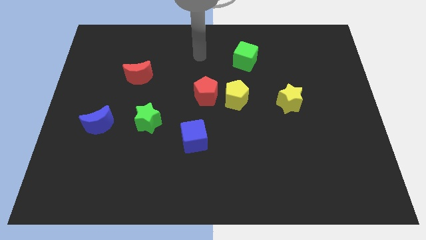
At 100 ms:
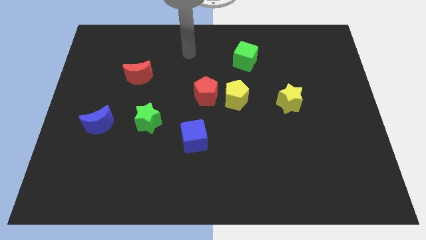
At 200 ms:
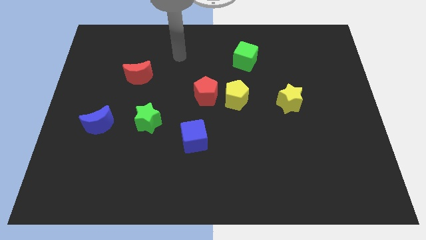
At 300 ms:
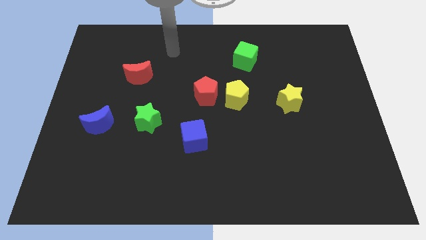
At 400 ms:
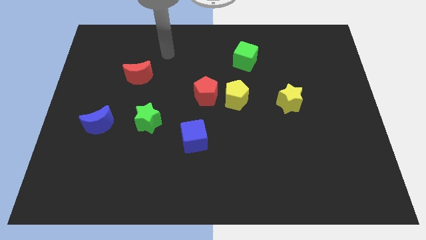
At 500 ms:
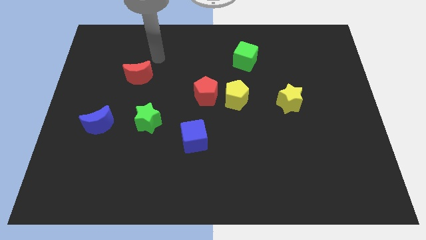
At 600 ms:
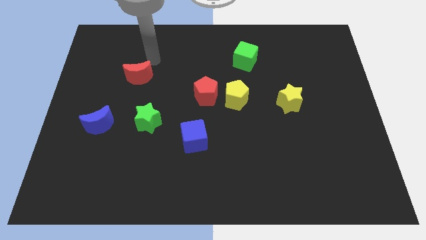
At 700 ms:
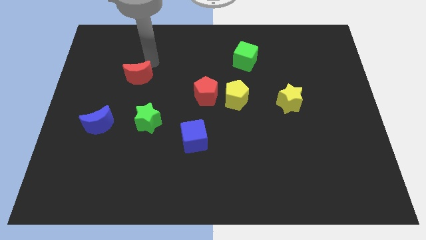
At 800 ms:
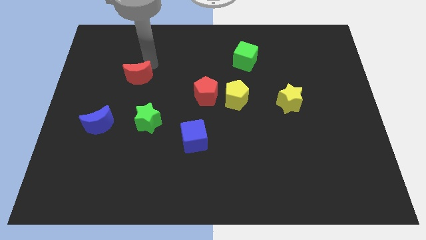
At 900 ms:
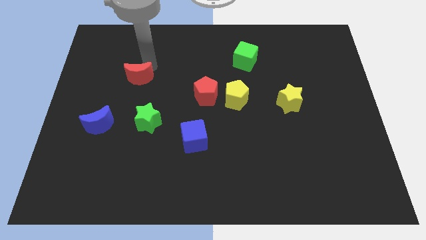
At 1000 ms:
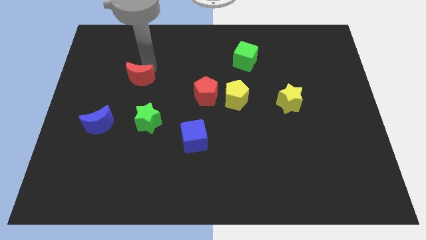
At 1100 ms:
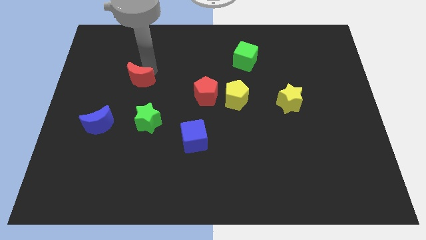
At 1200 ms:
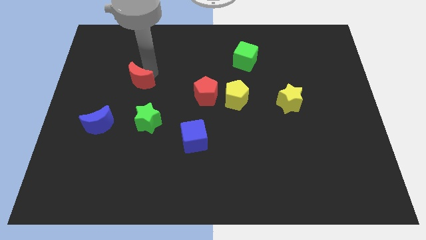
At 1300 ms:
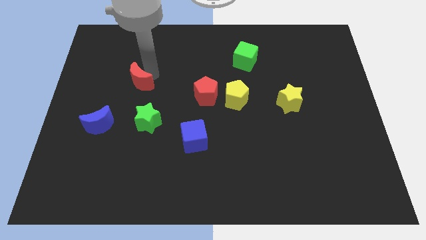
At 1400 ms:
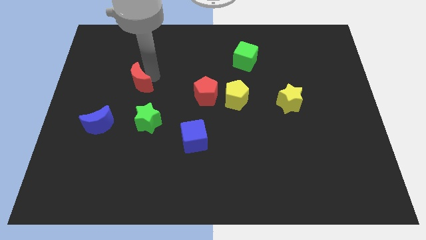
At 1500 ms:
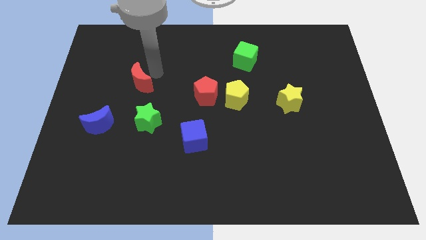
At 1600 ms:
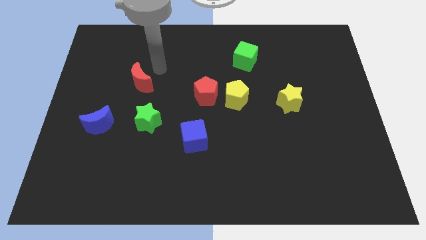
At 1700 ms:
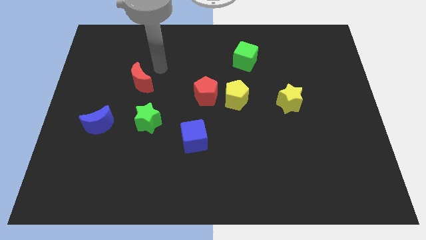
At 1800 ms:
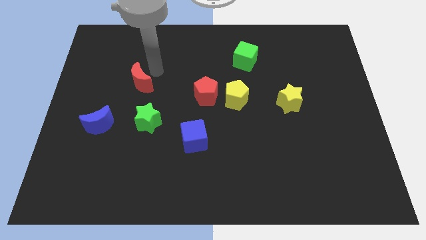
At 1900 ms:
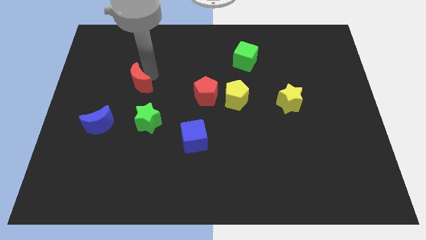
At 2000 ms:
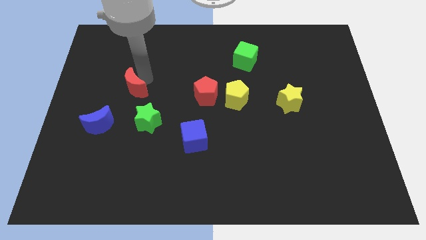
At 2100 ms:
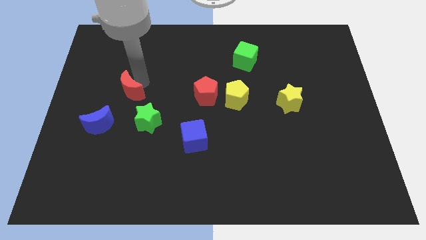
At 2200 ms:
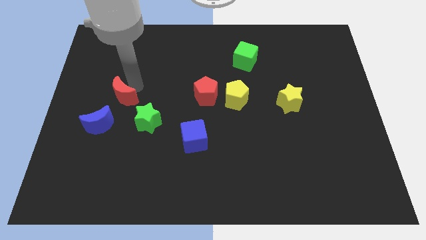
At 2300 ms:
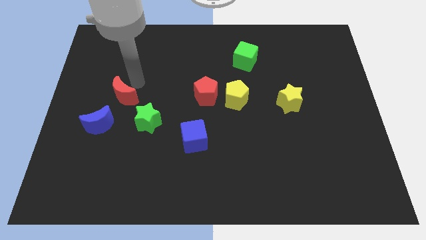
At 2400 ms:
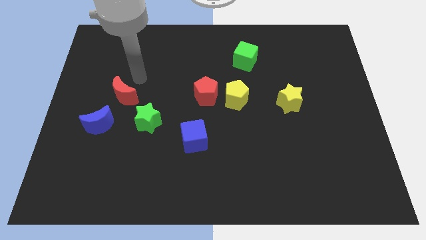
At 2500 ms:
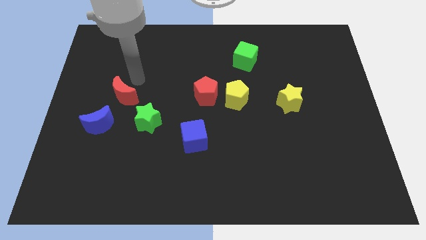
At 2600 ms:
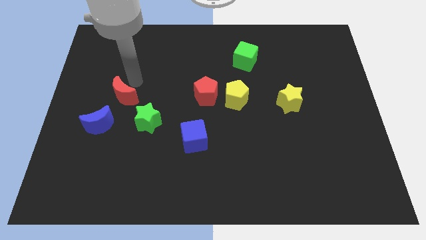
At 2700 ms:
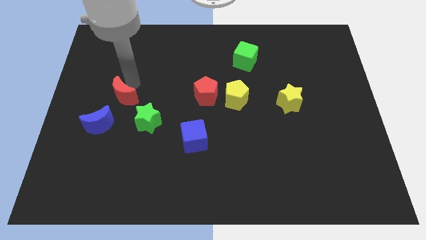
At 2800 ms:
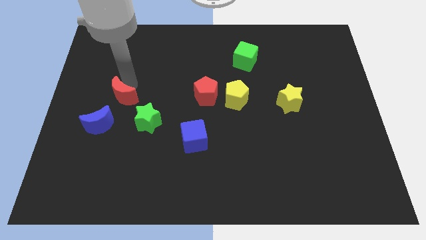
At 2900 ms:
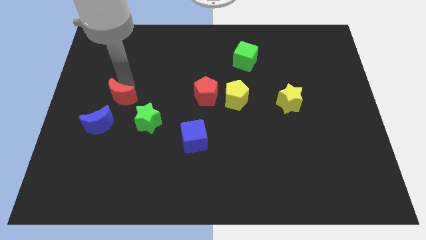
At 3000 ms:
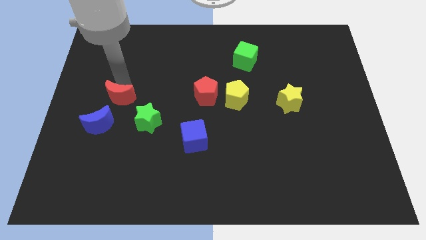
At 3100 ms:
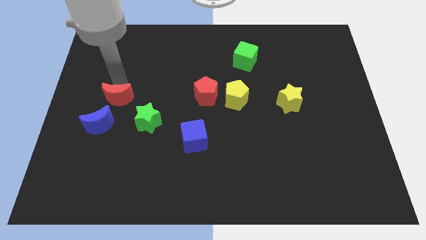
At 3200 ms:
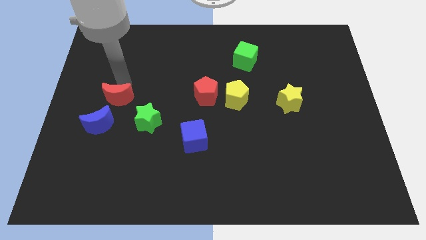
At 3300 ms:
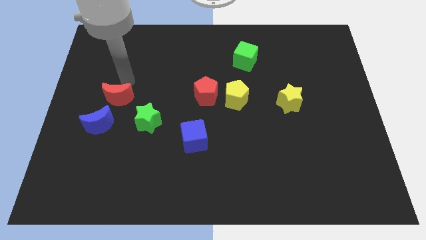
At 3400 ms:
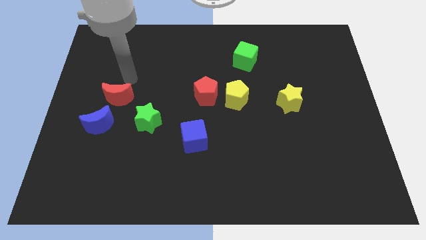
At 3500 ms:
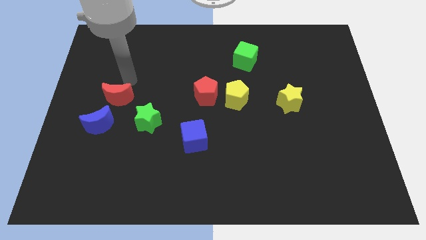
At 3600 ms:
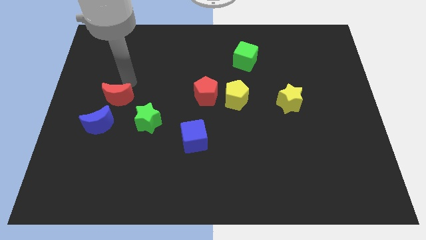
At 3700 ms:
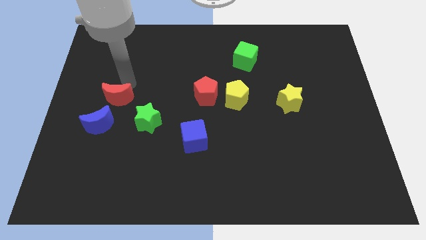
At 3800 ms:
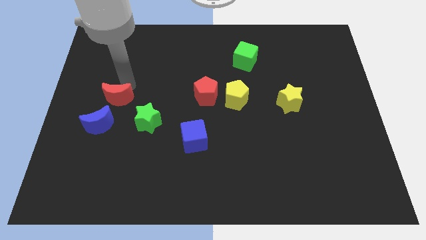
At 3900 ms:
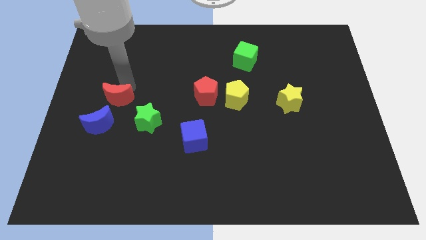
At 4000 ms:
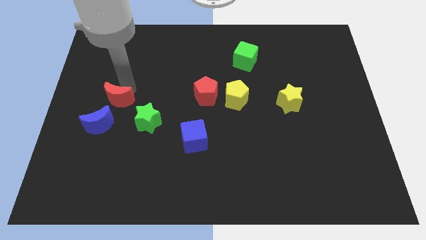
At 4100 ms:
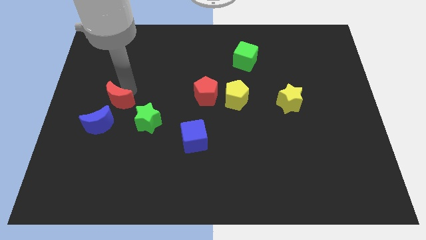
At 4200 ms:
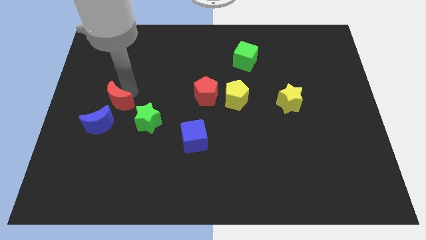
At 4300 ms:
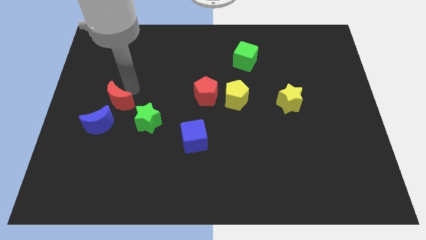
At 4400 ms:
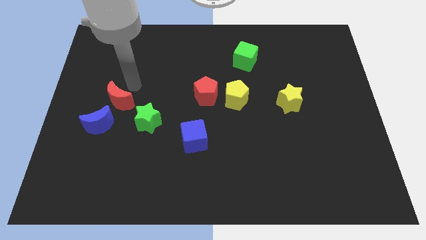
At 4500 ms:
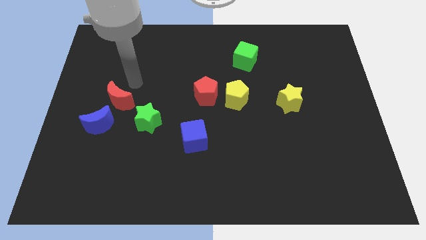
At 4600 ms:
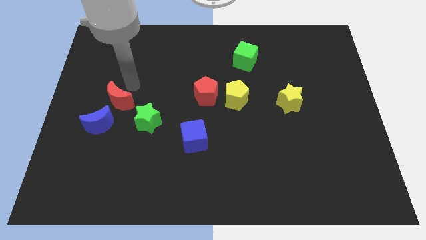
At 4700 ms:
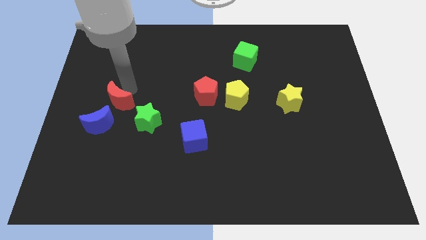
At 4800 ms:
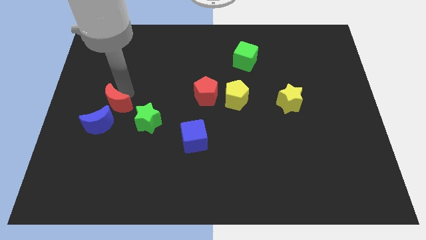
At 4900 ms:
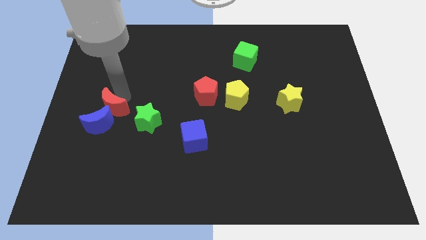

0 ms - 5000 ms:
push the red moon to the blue moon

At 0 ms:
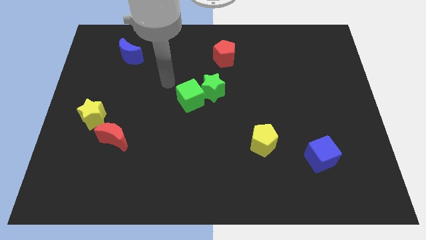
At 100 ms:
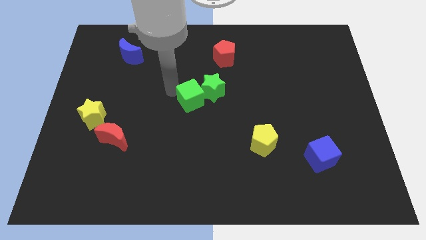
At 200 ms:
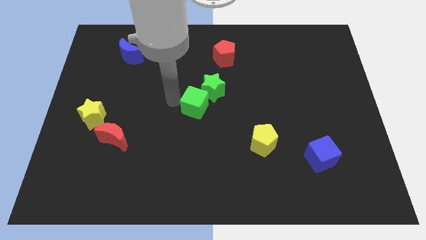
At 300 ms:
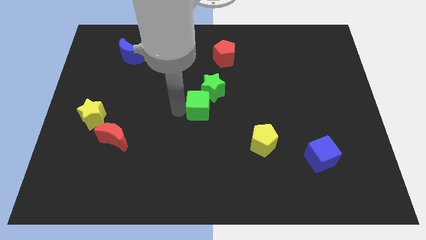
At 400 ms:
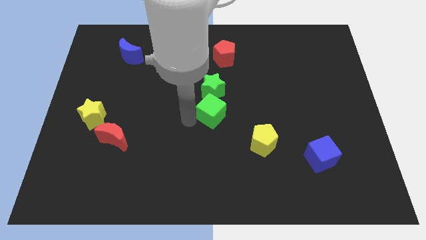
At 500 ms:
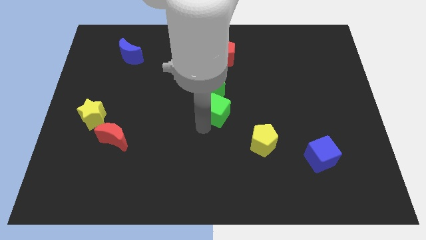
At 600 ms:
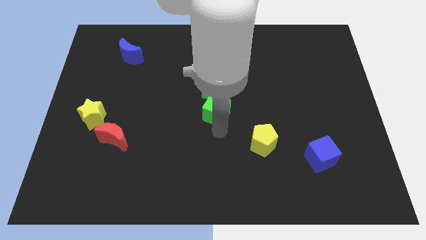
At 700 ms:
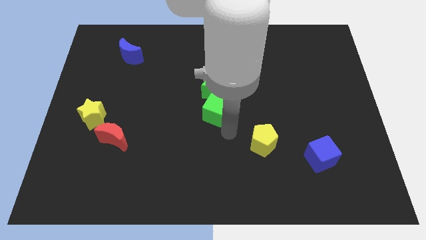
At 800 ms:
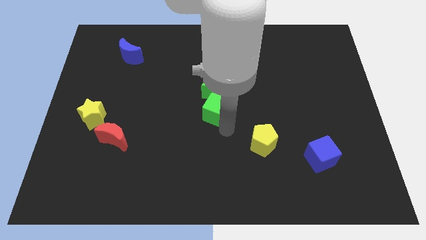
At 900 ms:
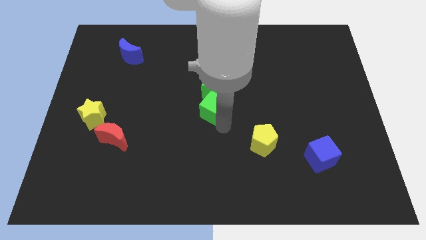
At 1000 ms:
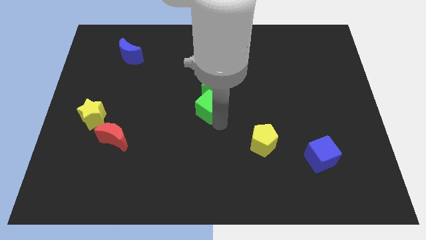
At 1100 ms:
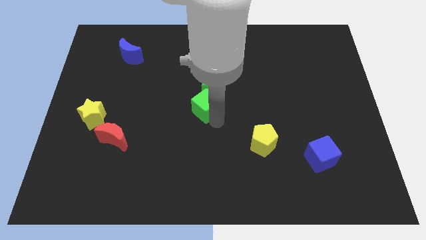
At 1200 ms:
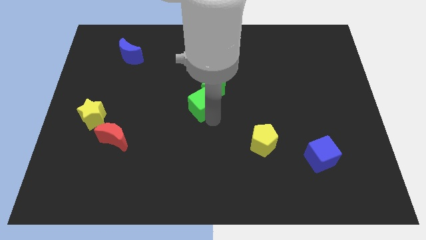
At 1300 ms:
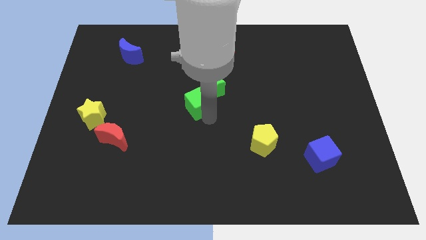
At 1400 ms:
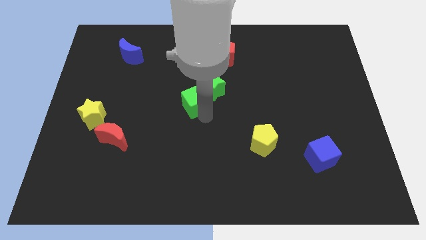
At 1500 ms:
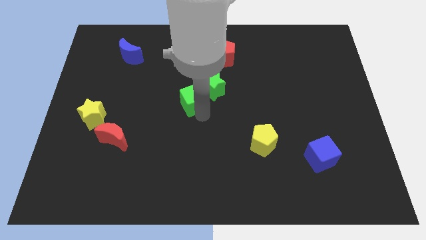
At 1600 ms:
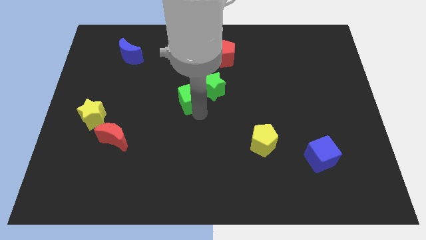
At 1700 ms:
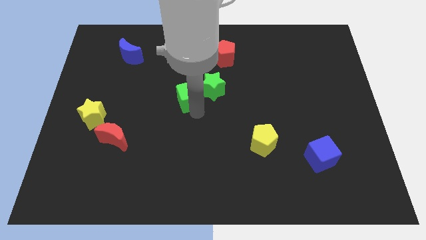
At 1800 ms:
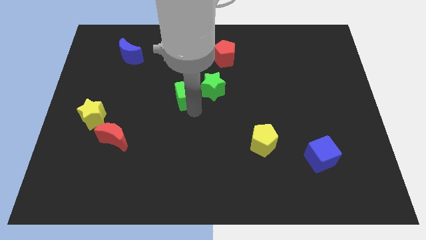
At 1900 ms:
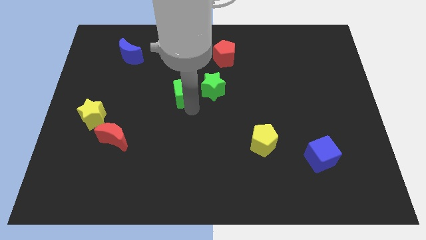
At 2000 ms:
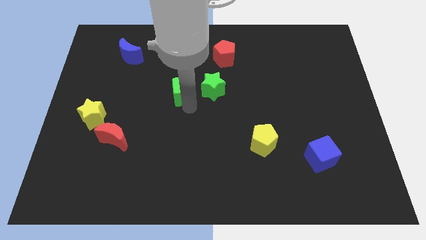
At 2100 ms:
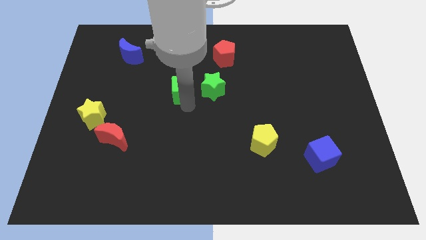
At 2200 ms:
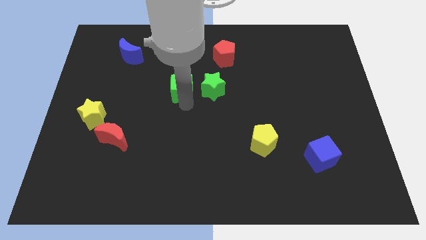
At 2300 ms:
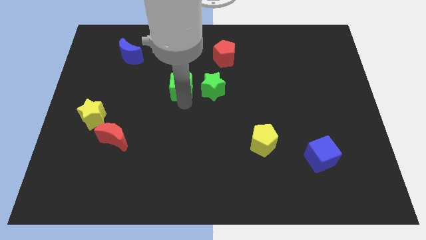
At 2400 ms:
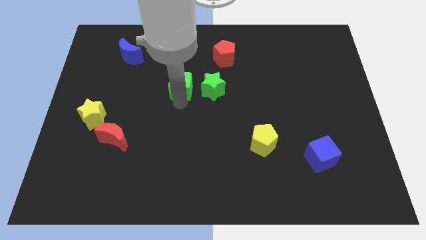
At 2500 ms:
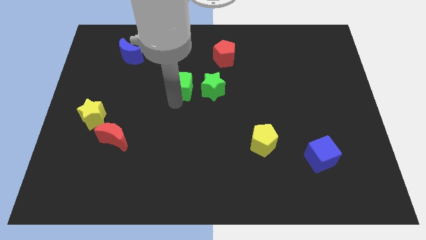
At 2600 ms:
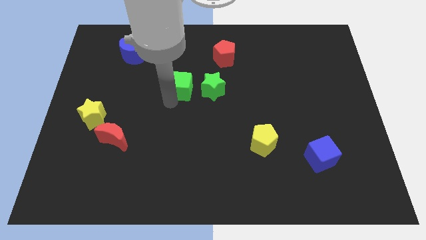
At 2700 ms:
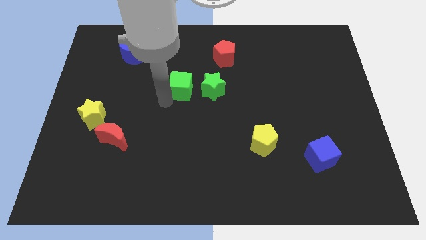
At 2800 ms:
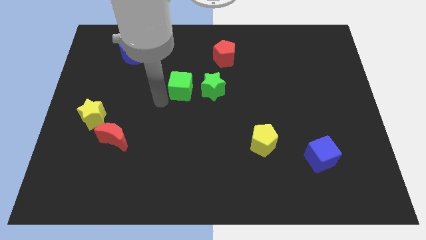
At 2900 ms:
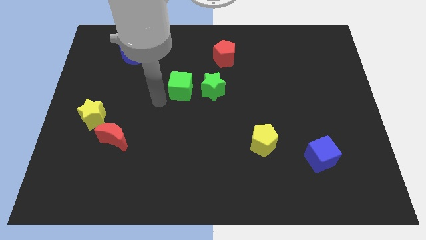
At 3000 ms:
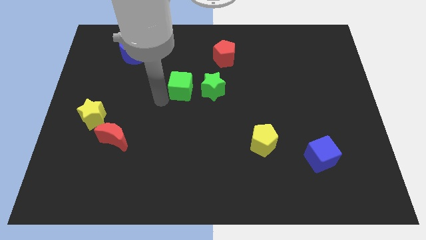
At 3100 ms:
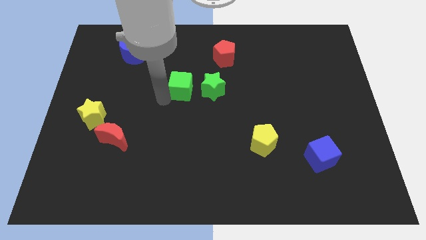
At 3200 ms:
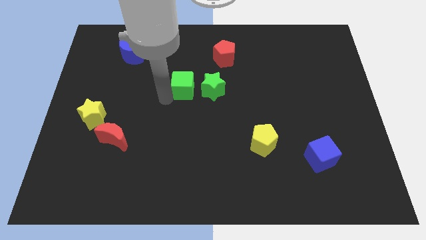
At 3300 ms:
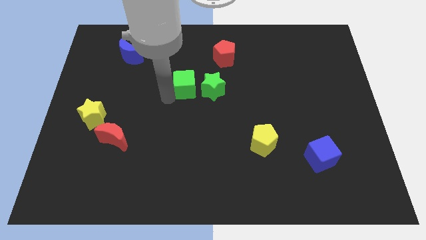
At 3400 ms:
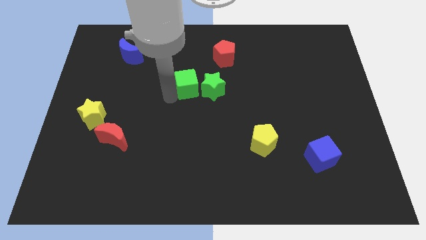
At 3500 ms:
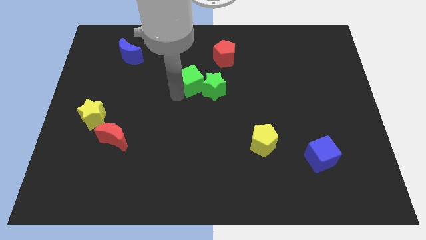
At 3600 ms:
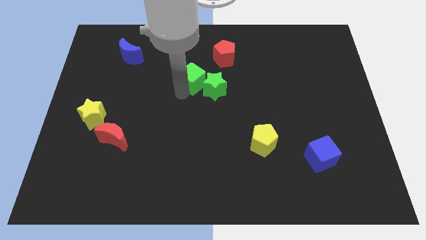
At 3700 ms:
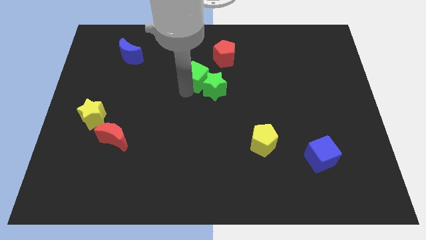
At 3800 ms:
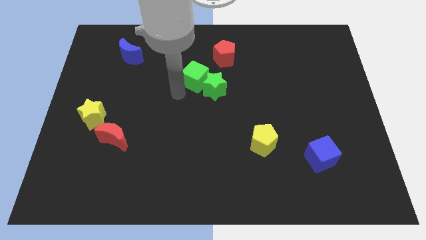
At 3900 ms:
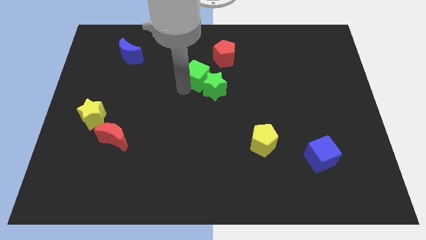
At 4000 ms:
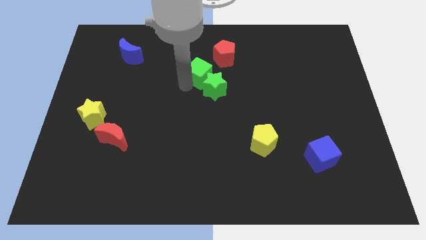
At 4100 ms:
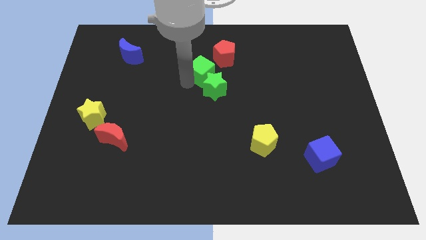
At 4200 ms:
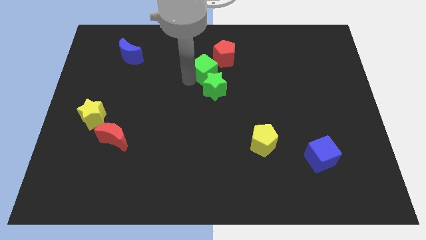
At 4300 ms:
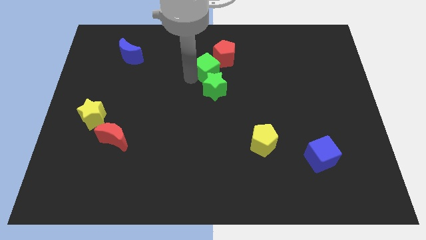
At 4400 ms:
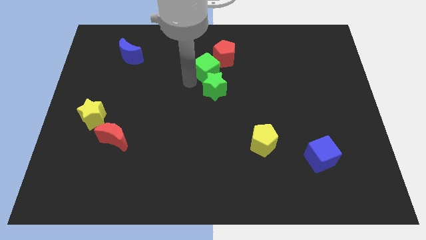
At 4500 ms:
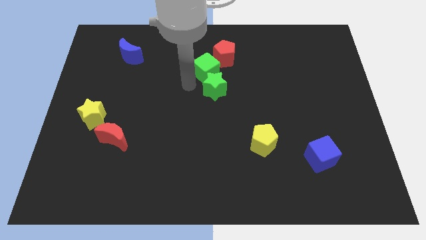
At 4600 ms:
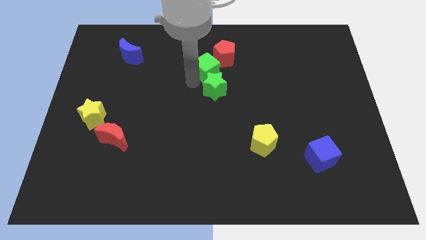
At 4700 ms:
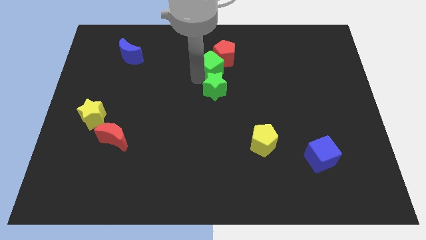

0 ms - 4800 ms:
move the green cube towards the red pentagon
